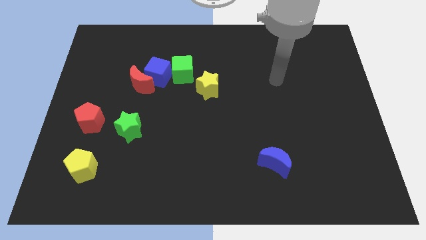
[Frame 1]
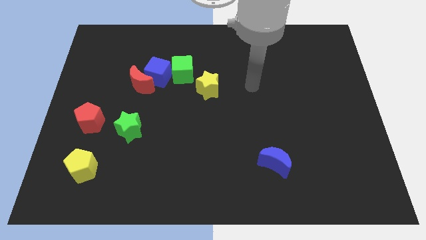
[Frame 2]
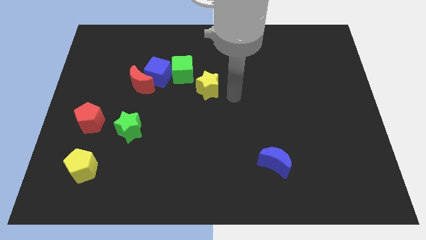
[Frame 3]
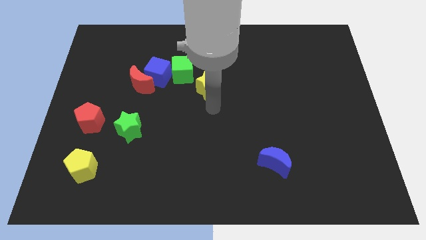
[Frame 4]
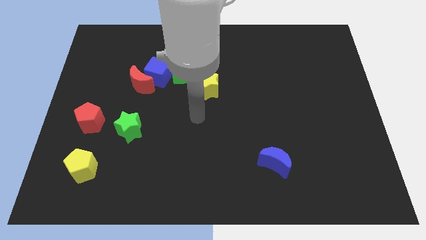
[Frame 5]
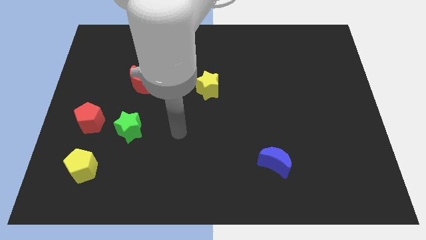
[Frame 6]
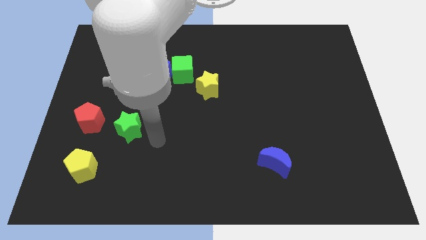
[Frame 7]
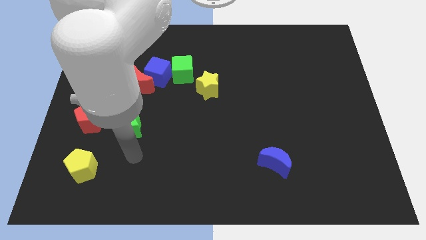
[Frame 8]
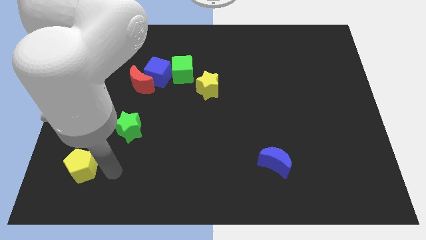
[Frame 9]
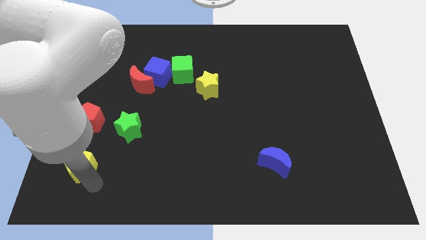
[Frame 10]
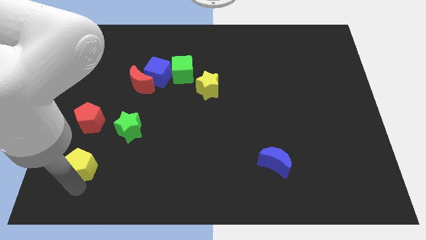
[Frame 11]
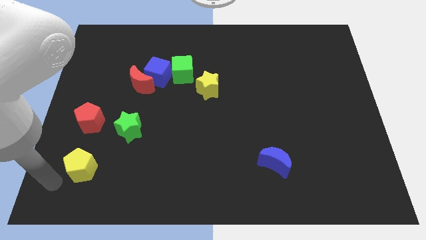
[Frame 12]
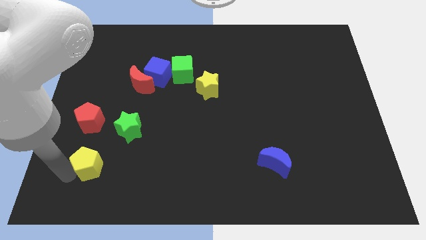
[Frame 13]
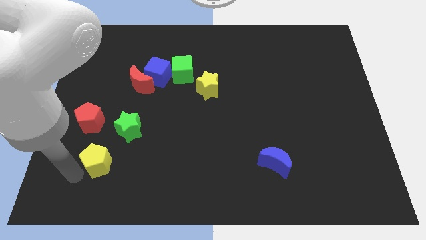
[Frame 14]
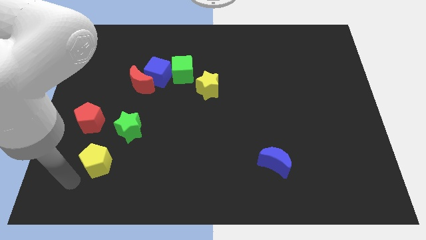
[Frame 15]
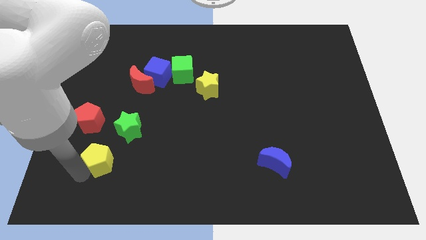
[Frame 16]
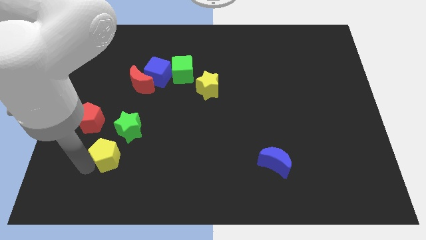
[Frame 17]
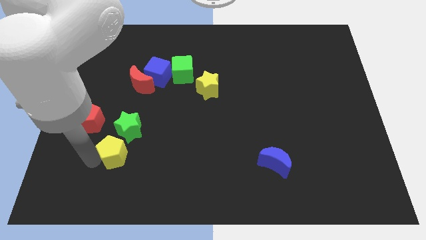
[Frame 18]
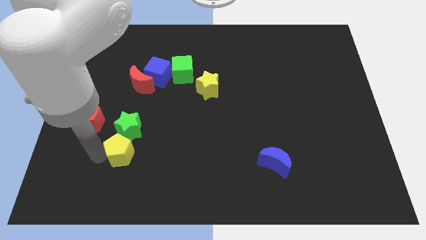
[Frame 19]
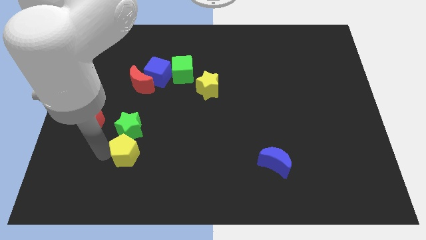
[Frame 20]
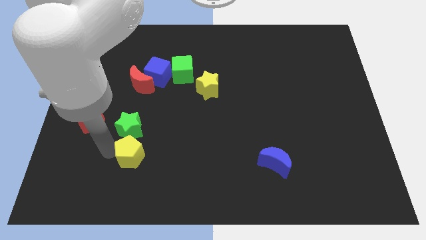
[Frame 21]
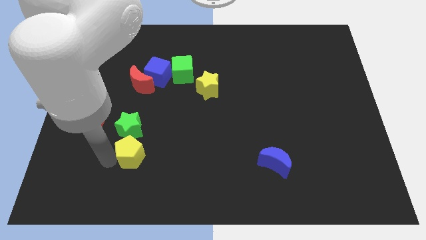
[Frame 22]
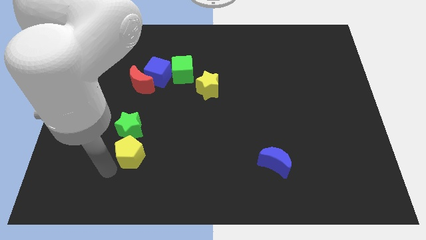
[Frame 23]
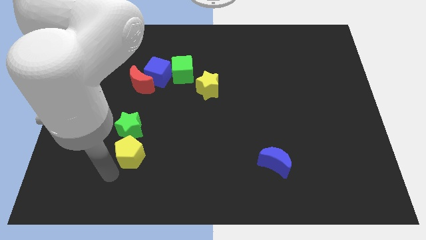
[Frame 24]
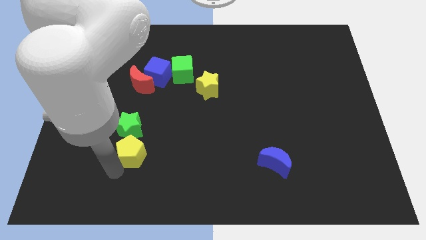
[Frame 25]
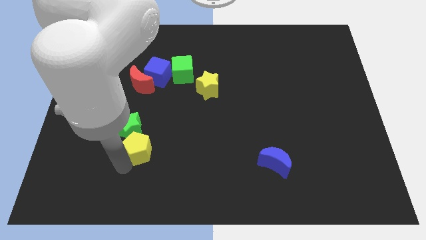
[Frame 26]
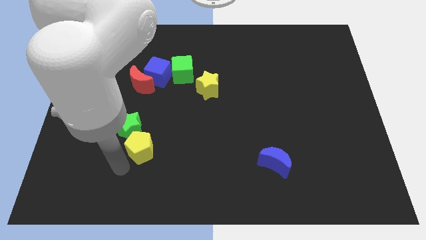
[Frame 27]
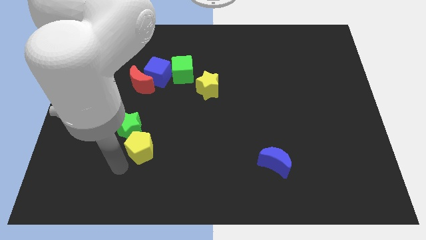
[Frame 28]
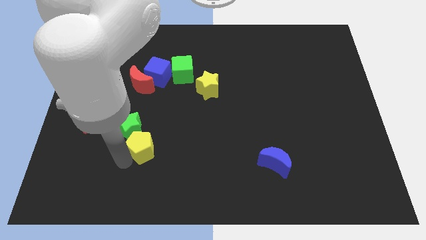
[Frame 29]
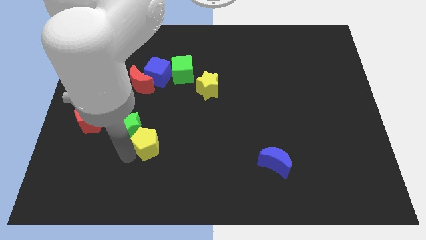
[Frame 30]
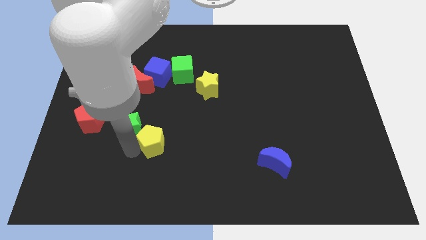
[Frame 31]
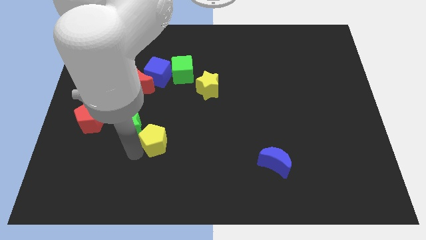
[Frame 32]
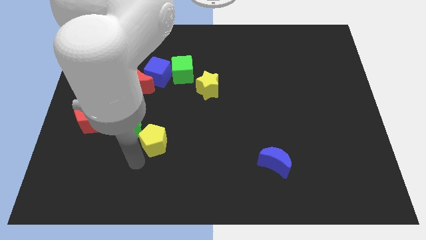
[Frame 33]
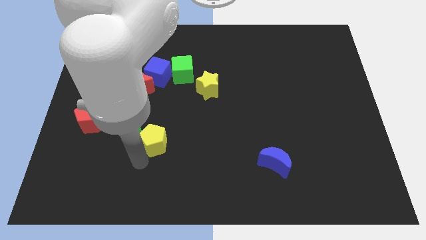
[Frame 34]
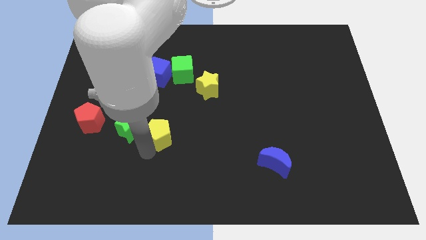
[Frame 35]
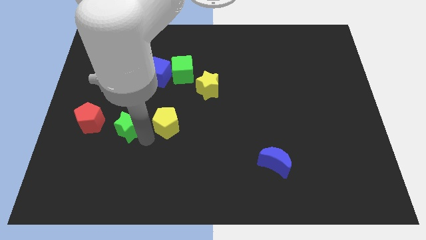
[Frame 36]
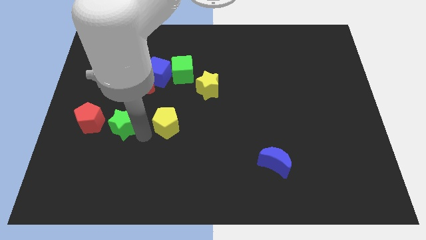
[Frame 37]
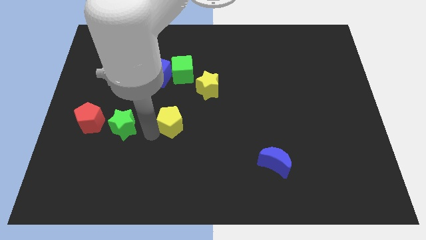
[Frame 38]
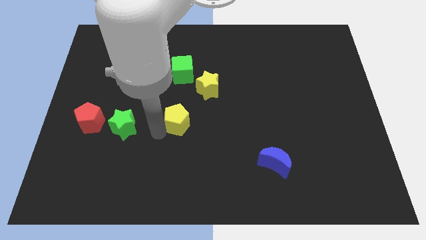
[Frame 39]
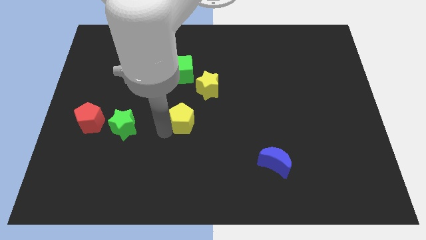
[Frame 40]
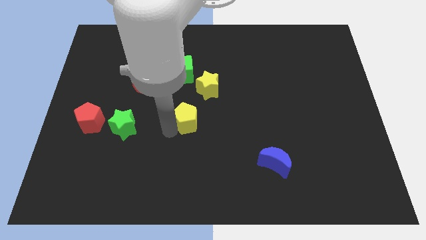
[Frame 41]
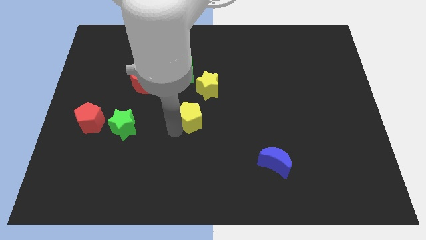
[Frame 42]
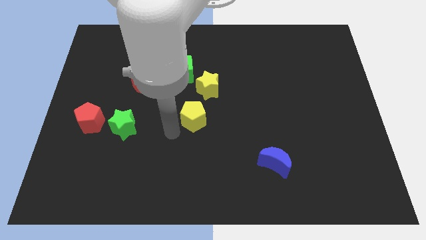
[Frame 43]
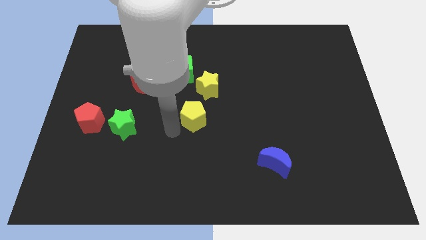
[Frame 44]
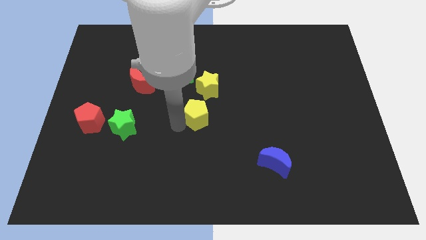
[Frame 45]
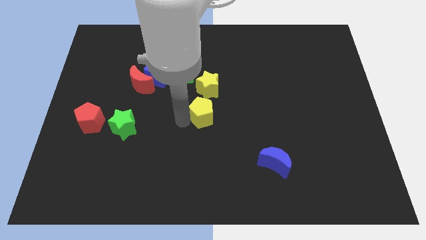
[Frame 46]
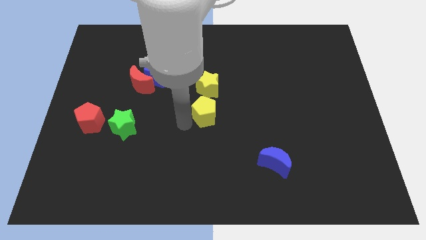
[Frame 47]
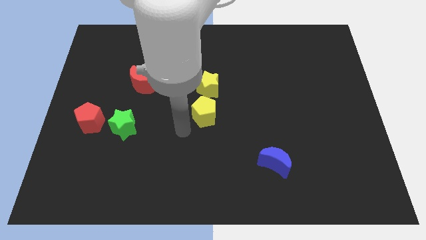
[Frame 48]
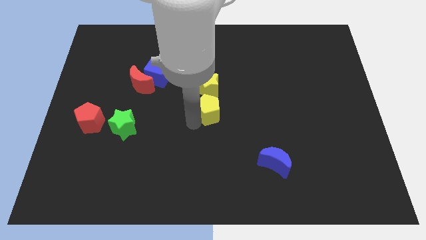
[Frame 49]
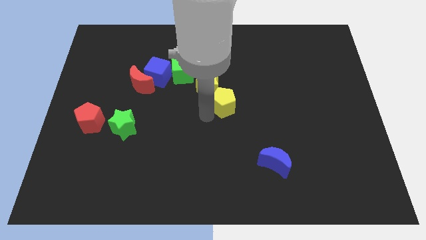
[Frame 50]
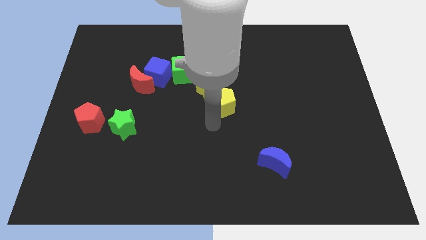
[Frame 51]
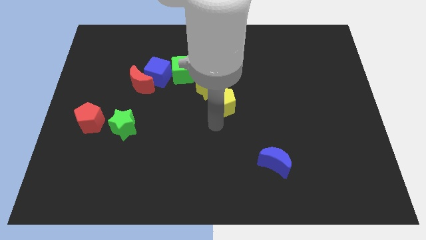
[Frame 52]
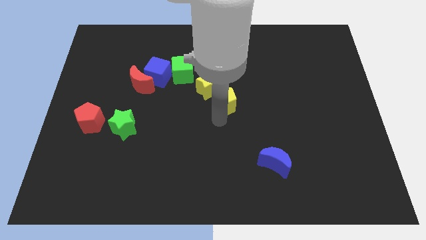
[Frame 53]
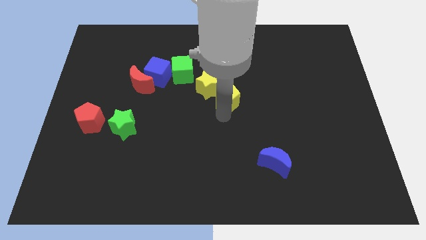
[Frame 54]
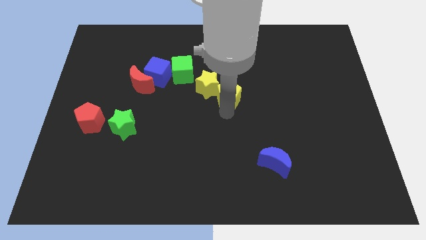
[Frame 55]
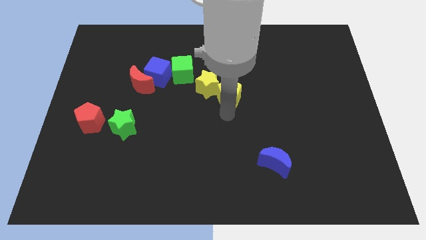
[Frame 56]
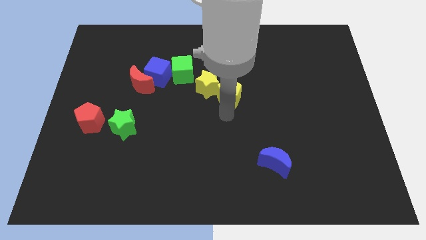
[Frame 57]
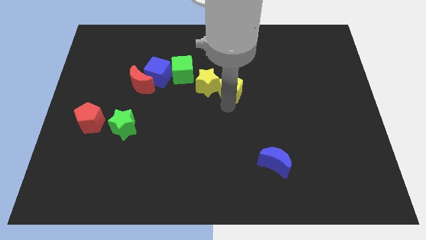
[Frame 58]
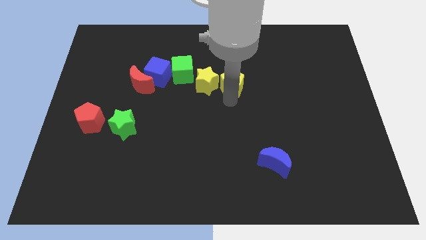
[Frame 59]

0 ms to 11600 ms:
push the yellow pentagon to the right side of the green cube
